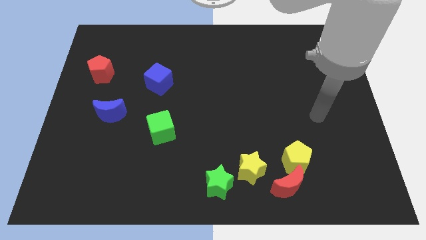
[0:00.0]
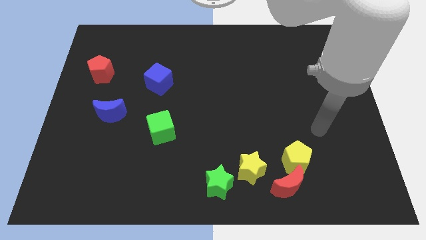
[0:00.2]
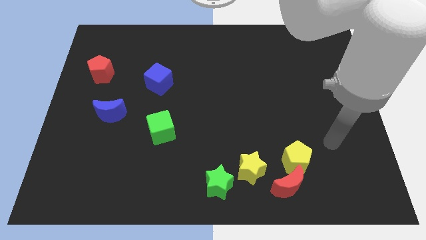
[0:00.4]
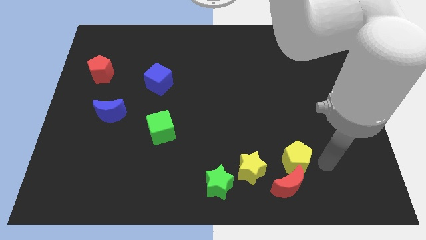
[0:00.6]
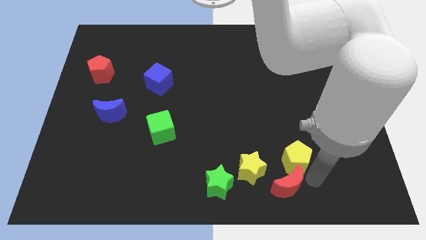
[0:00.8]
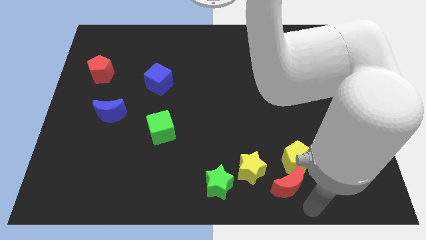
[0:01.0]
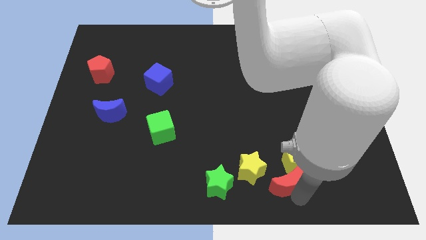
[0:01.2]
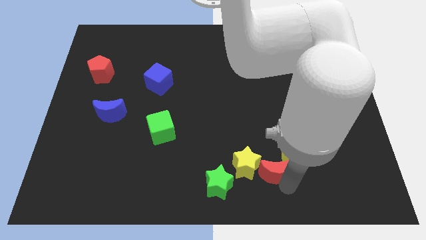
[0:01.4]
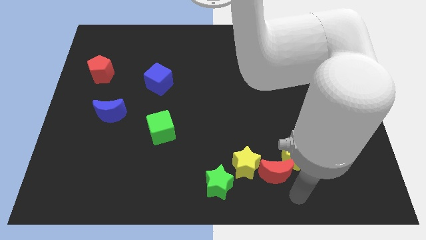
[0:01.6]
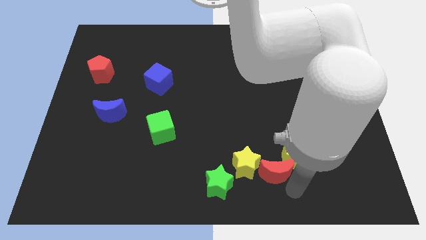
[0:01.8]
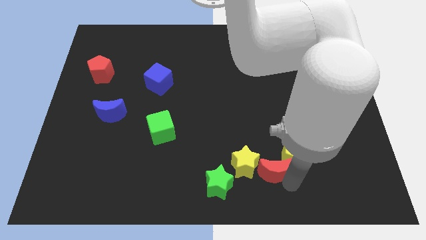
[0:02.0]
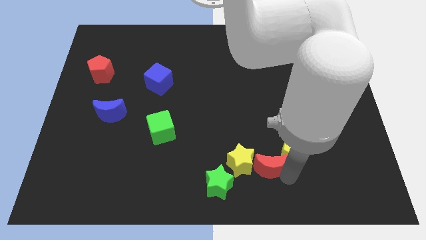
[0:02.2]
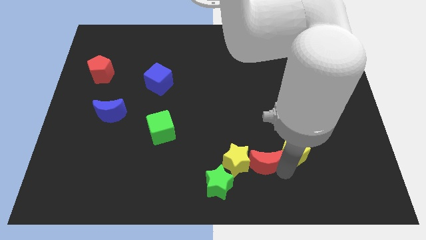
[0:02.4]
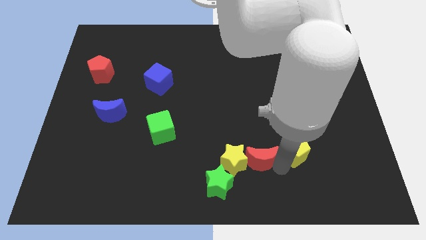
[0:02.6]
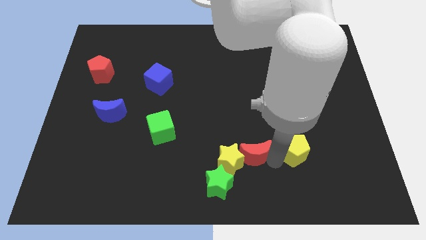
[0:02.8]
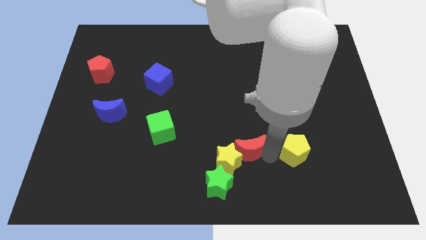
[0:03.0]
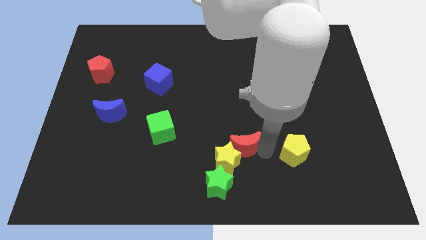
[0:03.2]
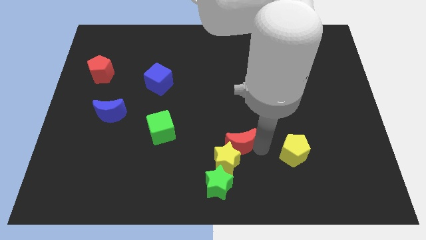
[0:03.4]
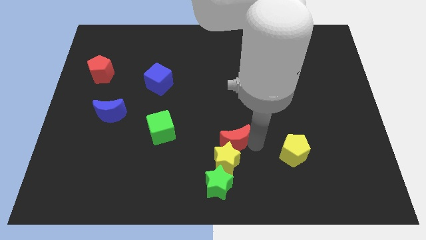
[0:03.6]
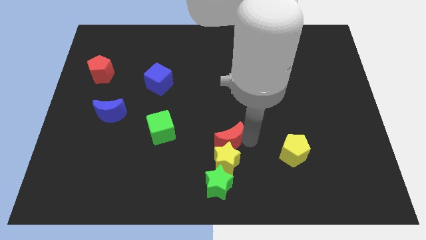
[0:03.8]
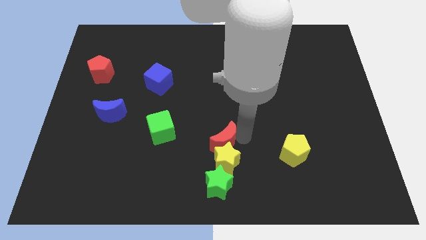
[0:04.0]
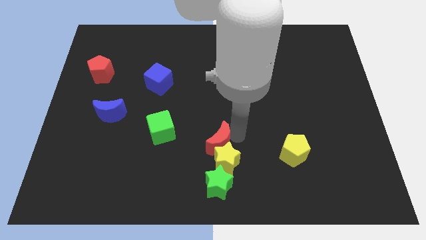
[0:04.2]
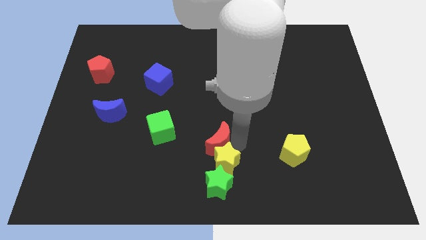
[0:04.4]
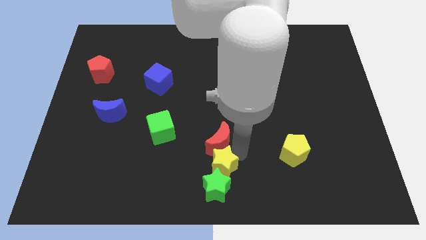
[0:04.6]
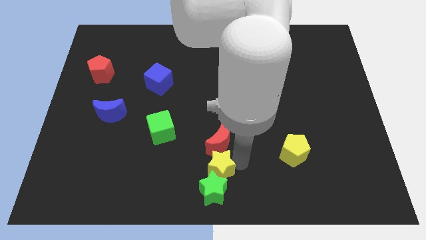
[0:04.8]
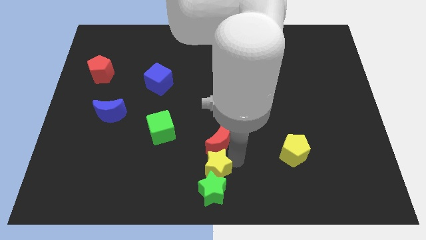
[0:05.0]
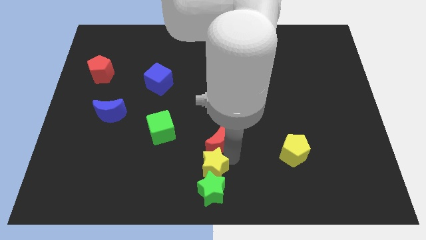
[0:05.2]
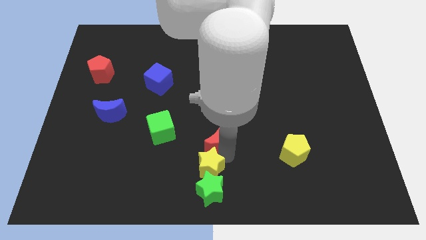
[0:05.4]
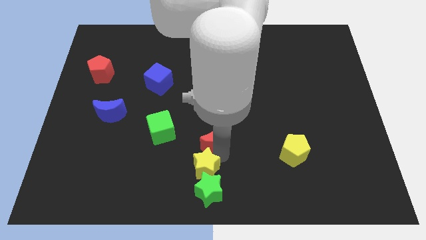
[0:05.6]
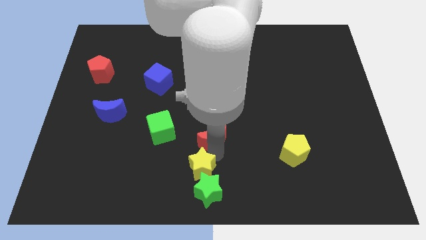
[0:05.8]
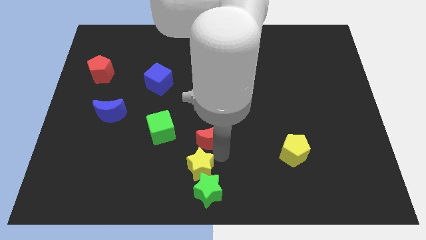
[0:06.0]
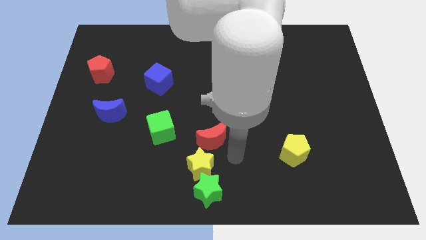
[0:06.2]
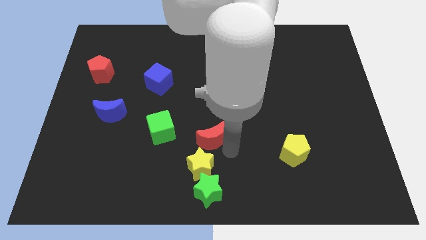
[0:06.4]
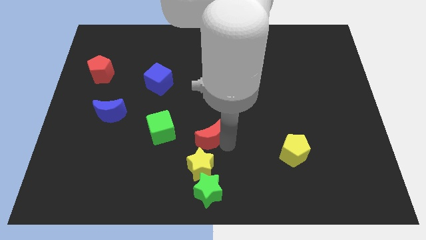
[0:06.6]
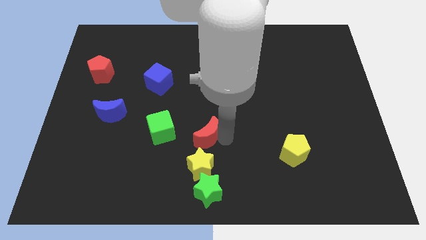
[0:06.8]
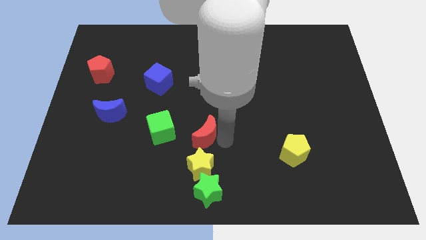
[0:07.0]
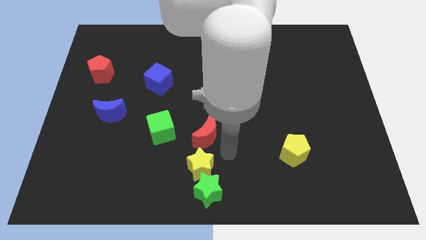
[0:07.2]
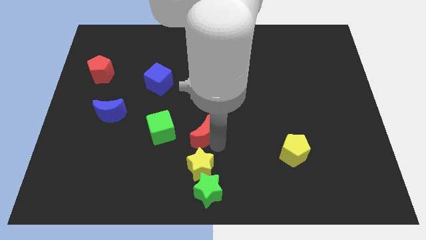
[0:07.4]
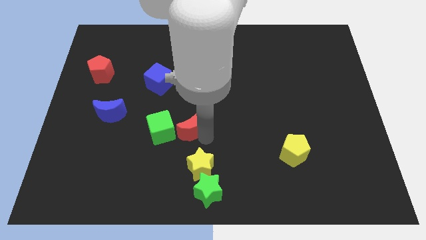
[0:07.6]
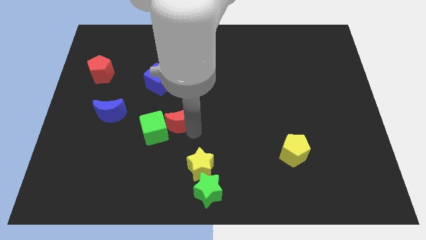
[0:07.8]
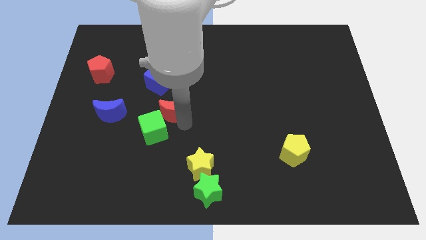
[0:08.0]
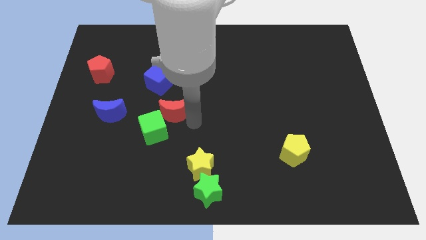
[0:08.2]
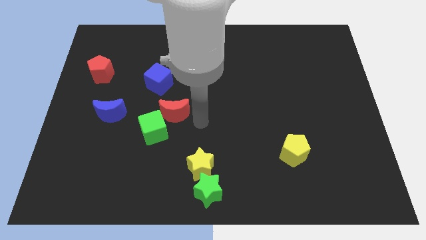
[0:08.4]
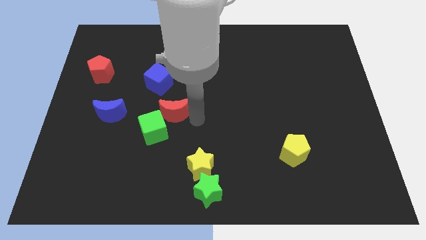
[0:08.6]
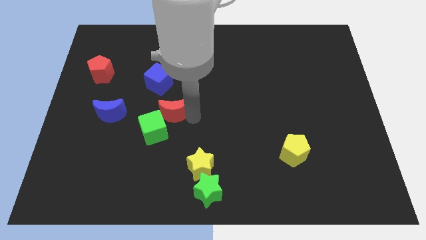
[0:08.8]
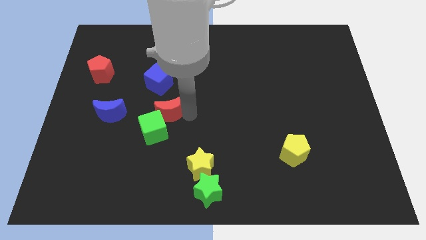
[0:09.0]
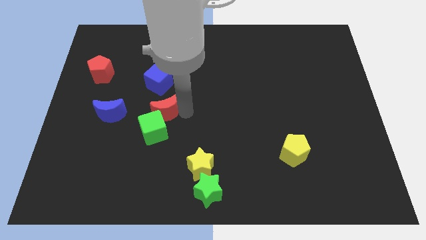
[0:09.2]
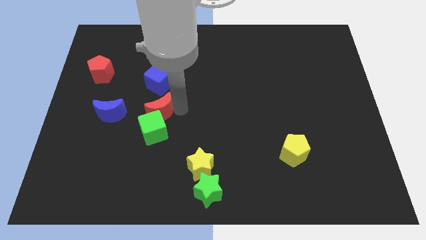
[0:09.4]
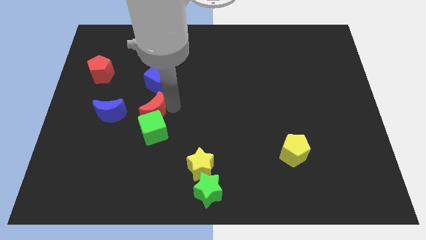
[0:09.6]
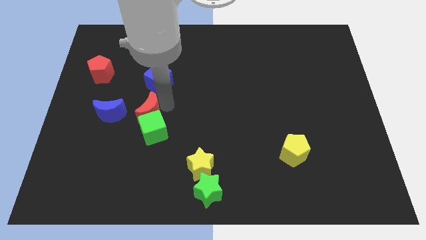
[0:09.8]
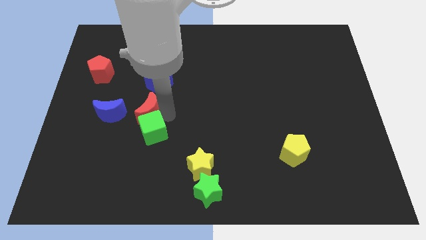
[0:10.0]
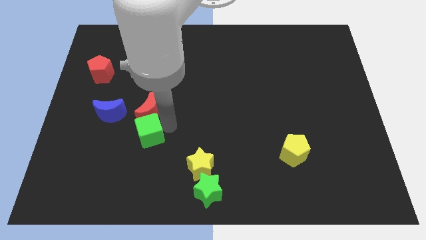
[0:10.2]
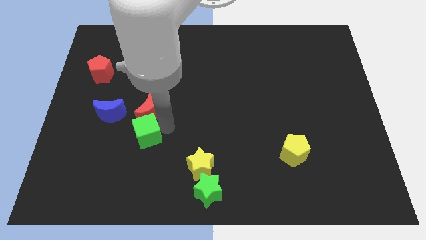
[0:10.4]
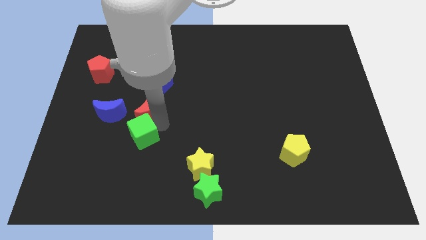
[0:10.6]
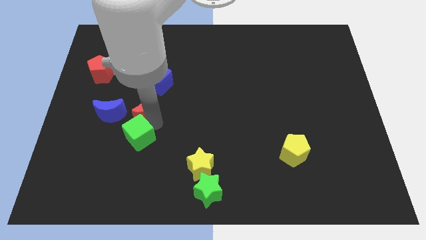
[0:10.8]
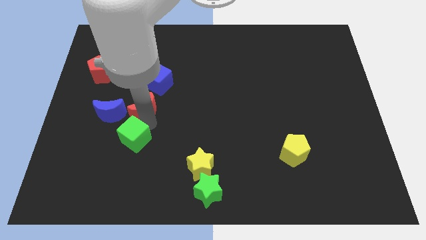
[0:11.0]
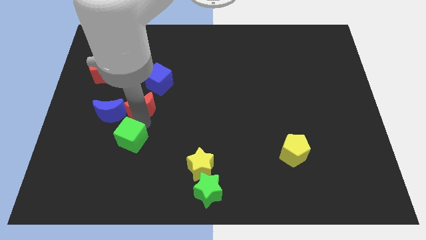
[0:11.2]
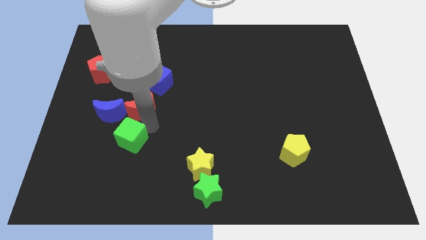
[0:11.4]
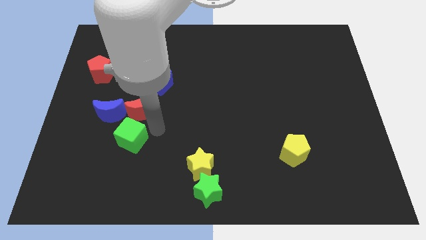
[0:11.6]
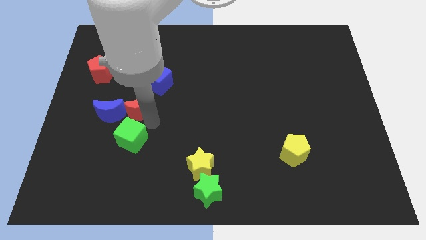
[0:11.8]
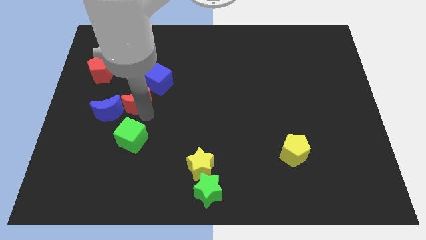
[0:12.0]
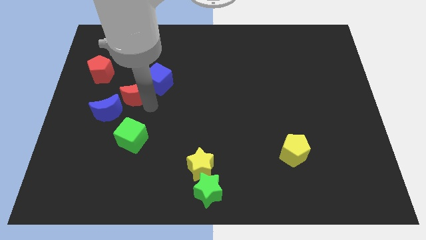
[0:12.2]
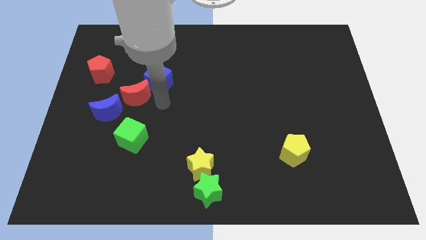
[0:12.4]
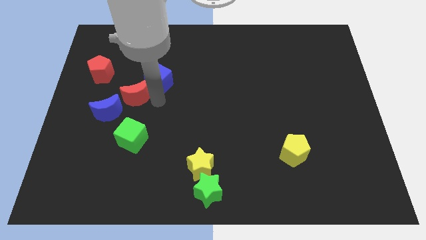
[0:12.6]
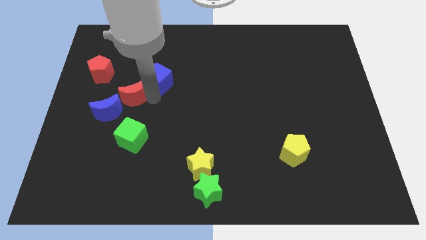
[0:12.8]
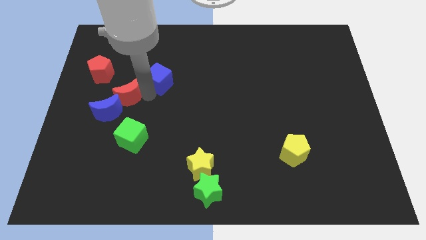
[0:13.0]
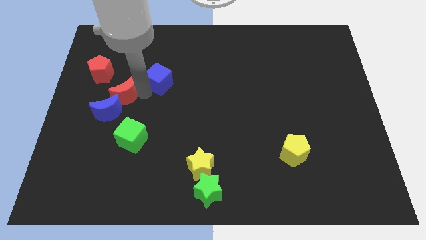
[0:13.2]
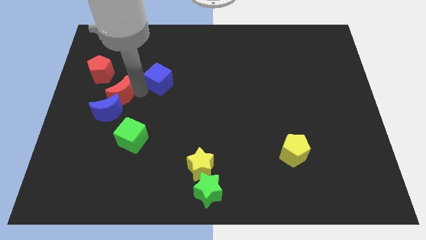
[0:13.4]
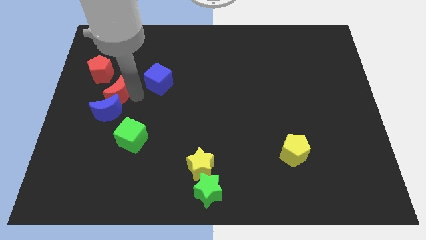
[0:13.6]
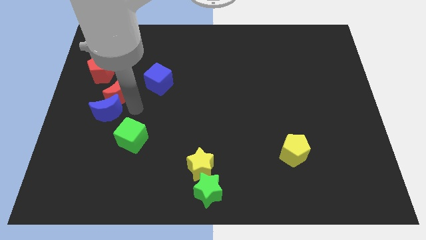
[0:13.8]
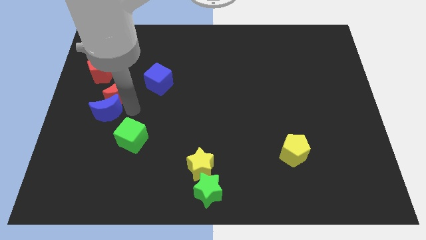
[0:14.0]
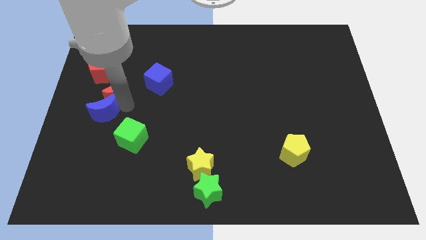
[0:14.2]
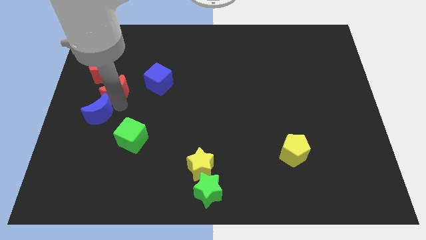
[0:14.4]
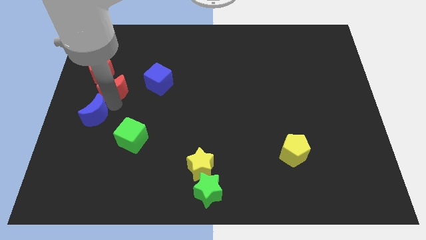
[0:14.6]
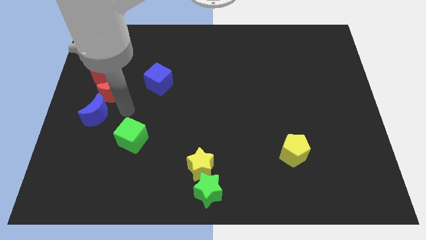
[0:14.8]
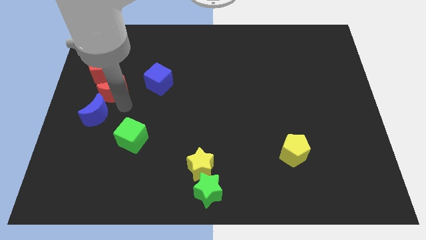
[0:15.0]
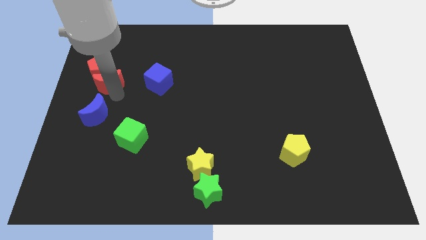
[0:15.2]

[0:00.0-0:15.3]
move the red moon towards the red pentagon
